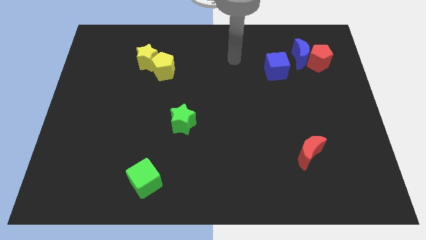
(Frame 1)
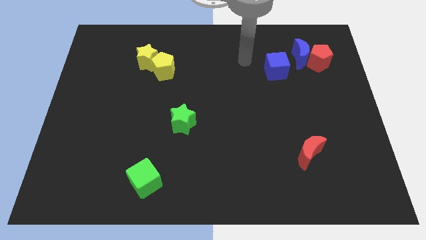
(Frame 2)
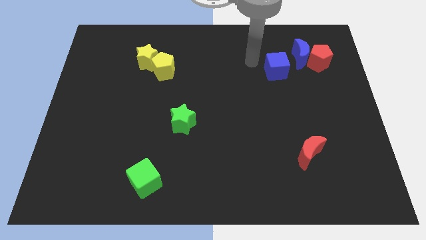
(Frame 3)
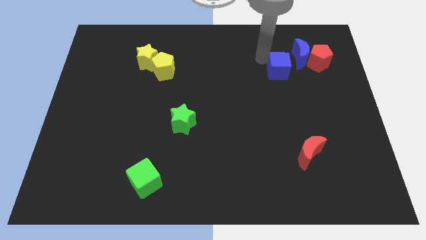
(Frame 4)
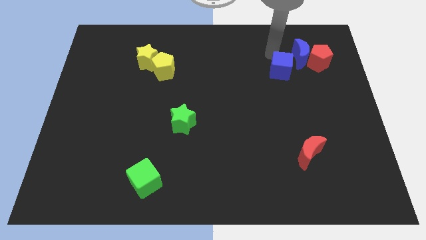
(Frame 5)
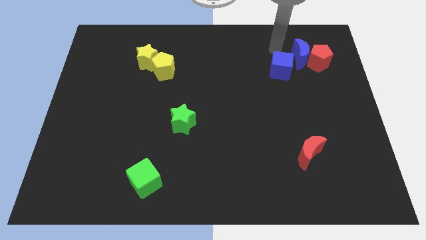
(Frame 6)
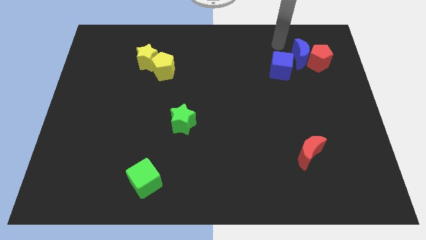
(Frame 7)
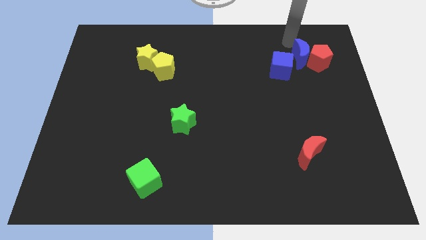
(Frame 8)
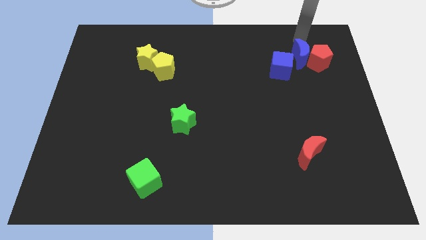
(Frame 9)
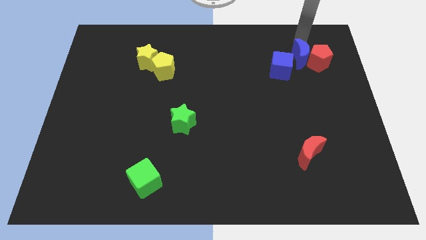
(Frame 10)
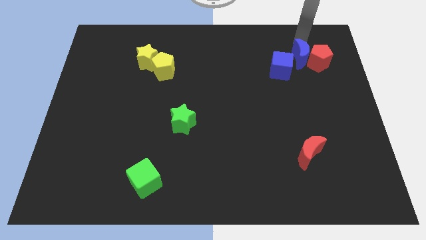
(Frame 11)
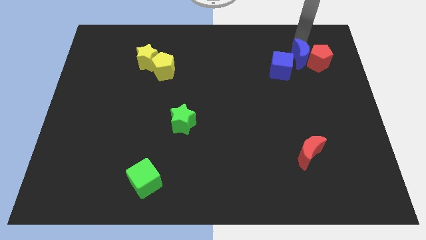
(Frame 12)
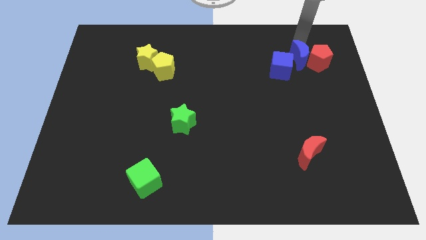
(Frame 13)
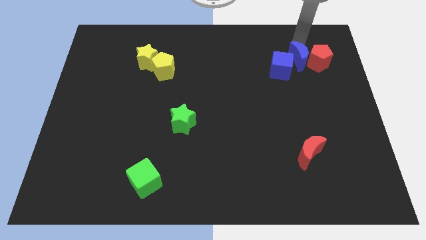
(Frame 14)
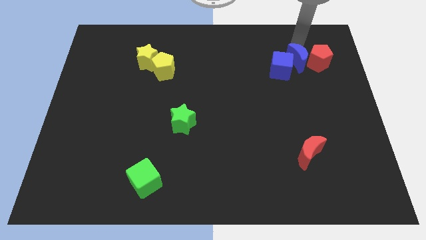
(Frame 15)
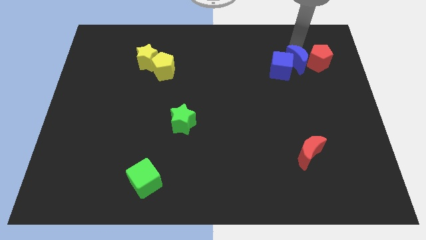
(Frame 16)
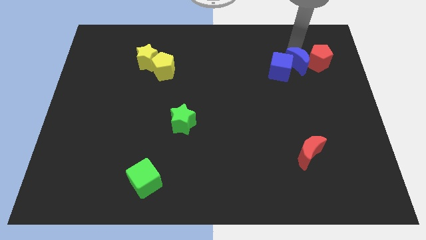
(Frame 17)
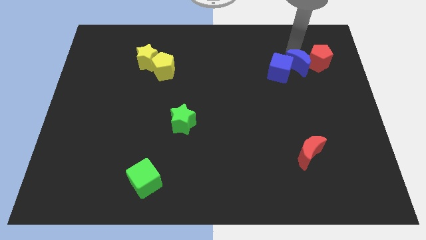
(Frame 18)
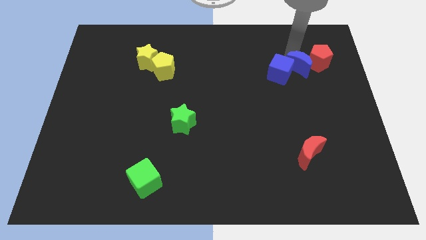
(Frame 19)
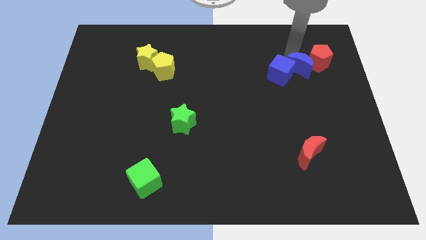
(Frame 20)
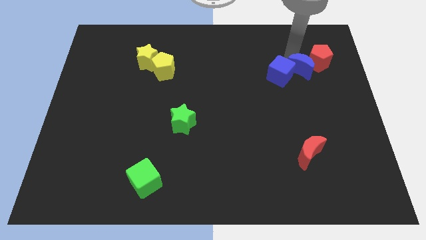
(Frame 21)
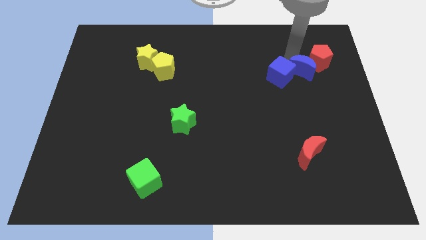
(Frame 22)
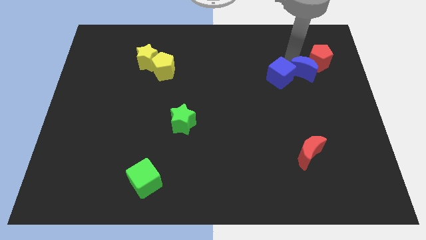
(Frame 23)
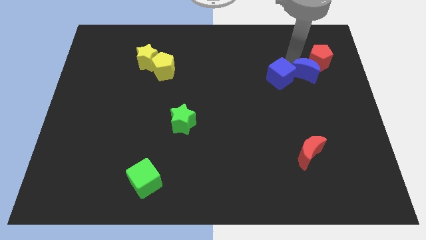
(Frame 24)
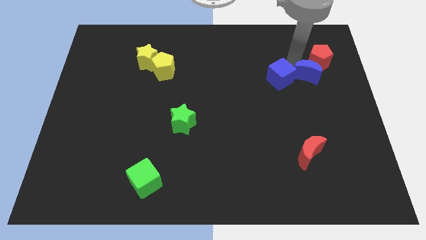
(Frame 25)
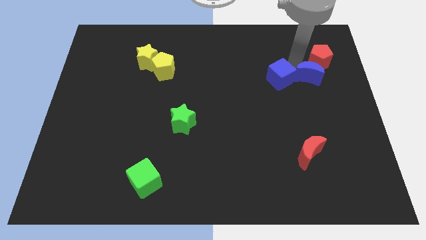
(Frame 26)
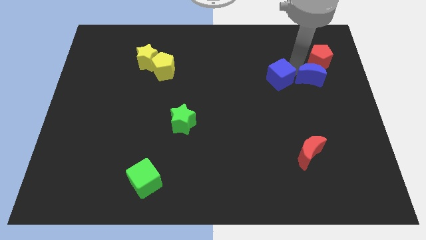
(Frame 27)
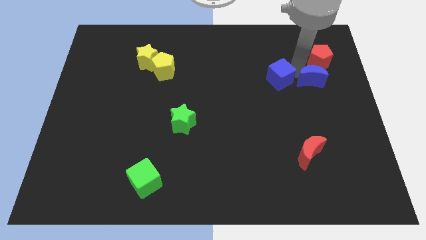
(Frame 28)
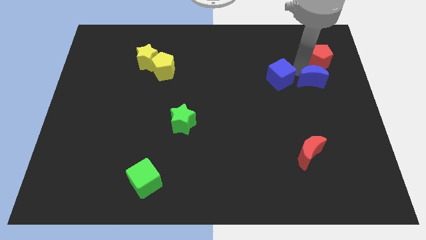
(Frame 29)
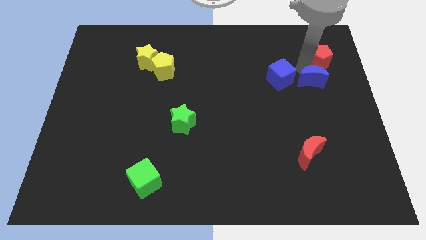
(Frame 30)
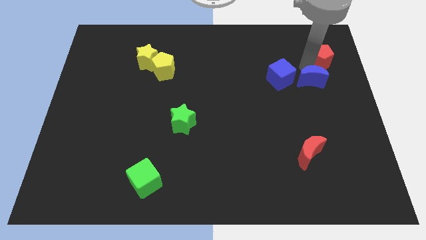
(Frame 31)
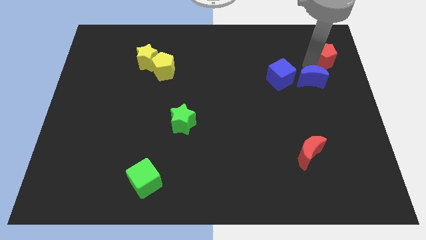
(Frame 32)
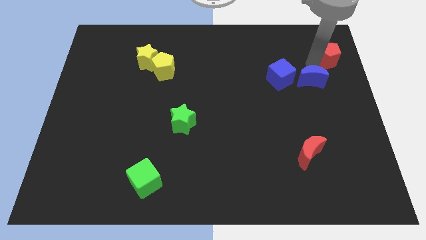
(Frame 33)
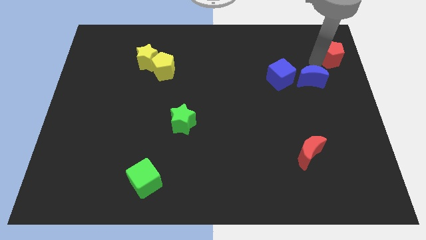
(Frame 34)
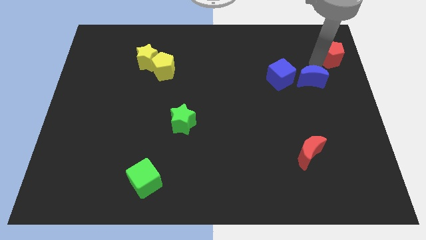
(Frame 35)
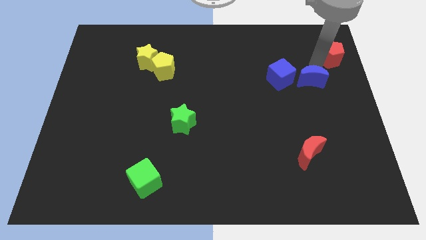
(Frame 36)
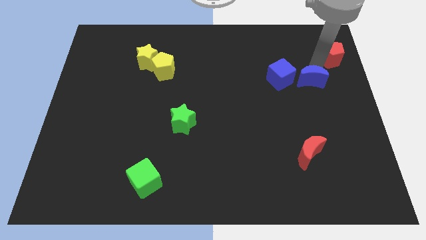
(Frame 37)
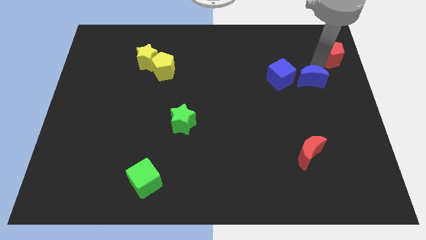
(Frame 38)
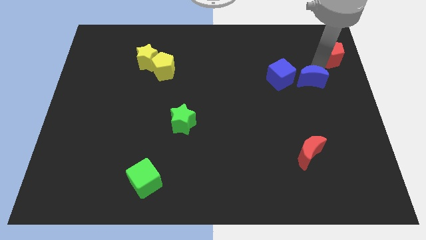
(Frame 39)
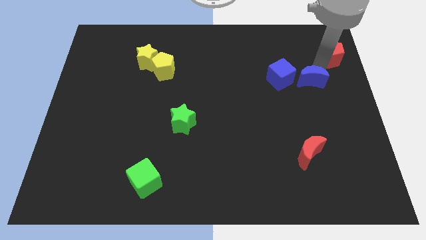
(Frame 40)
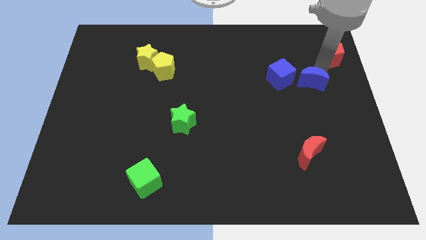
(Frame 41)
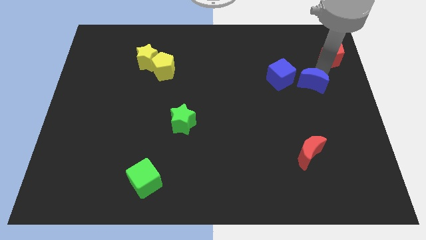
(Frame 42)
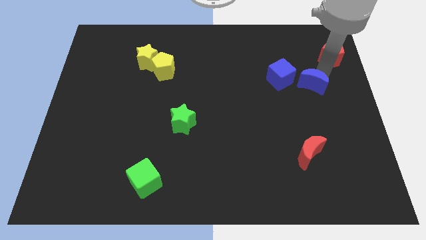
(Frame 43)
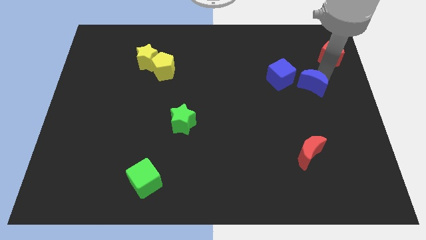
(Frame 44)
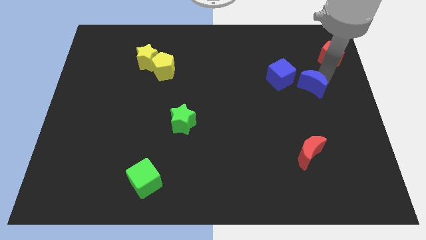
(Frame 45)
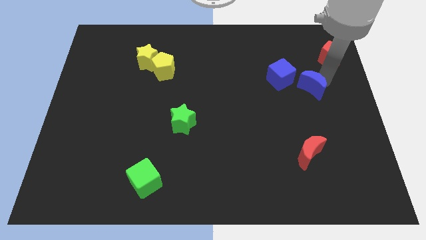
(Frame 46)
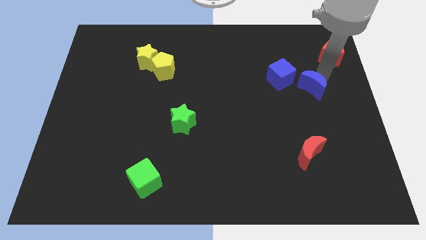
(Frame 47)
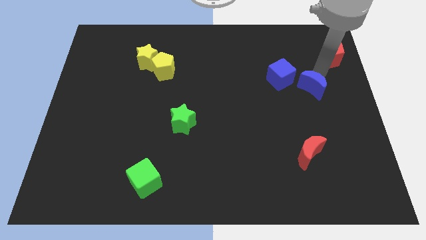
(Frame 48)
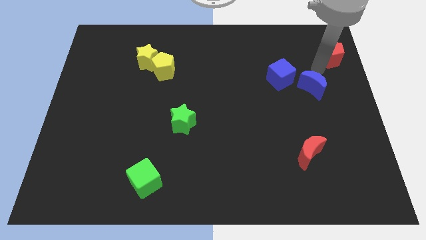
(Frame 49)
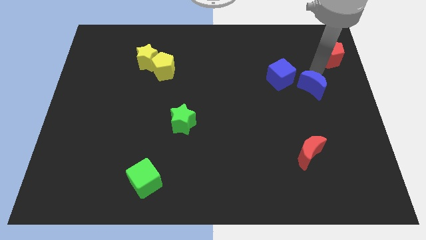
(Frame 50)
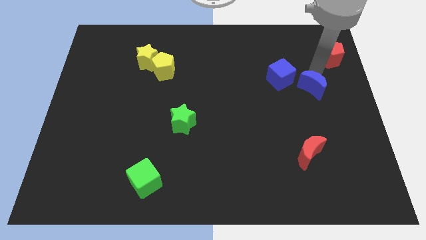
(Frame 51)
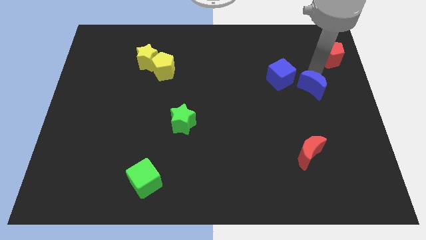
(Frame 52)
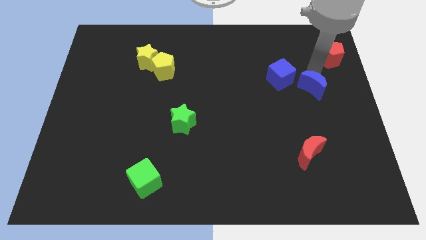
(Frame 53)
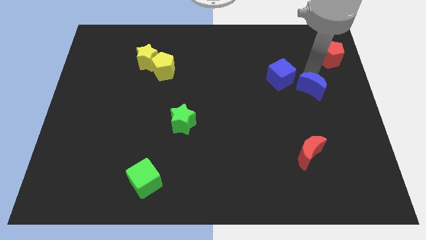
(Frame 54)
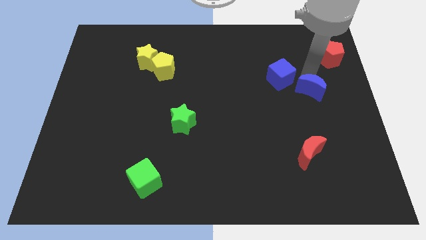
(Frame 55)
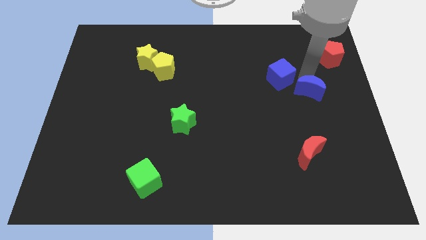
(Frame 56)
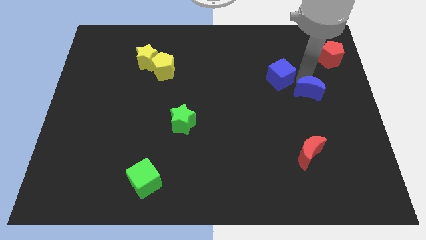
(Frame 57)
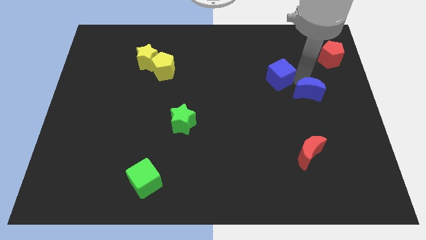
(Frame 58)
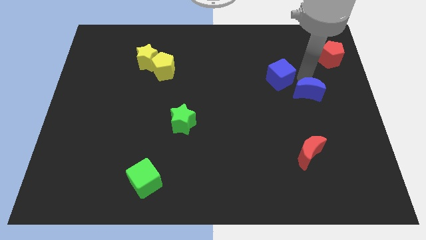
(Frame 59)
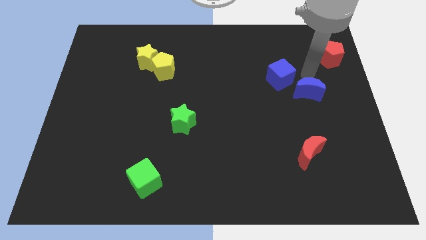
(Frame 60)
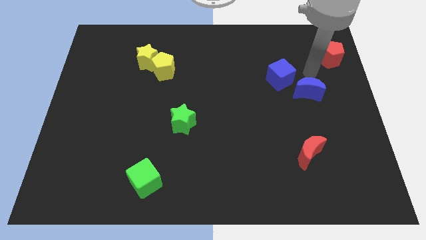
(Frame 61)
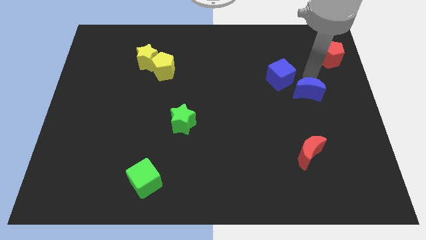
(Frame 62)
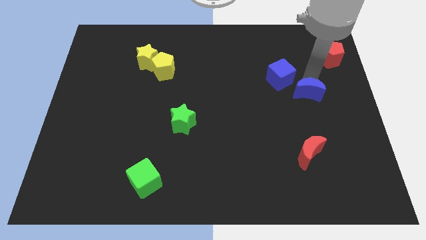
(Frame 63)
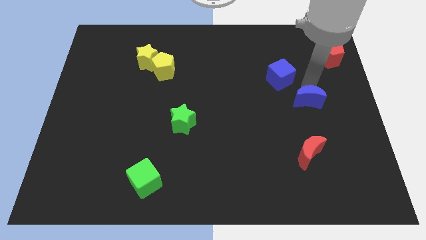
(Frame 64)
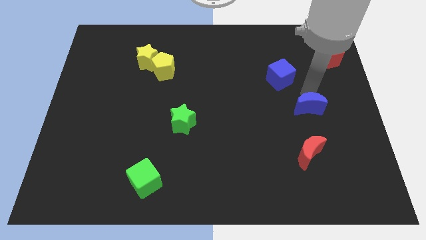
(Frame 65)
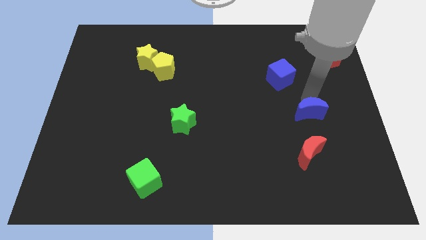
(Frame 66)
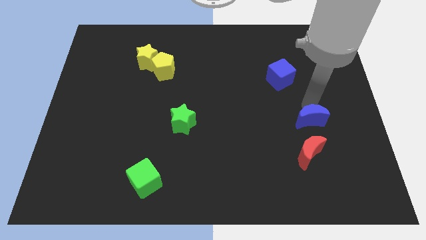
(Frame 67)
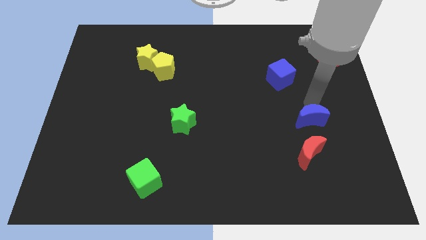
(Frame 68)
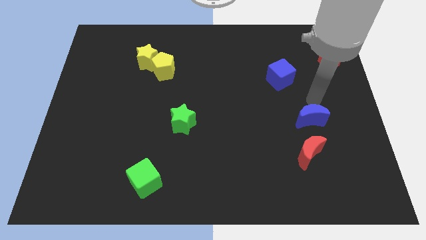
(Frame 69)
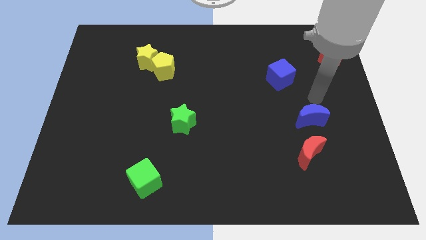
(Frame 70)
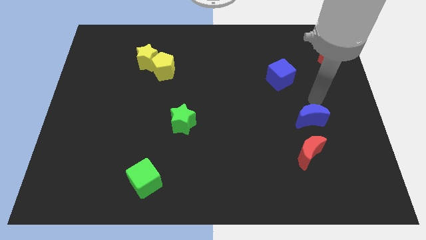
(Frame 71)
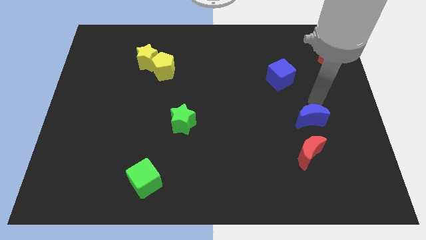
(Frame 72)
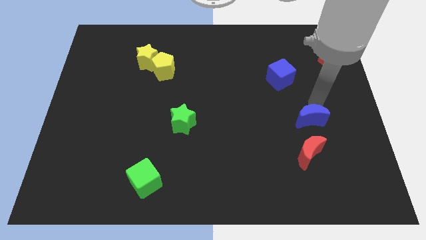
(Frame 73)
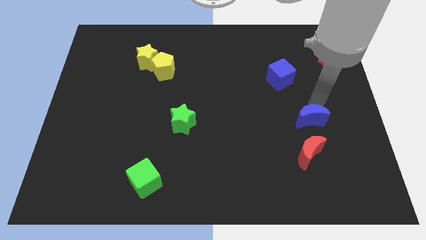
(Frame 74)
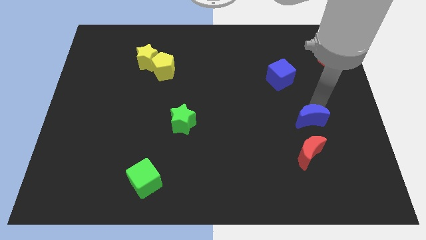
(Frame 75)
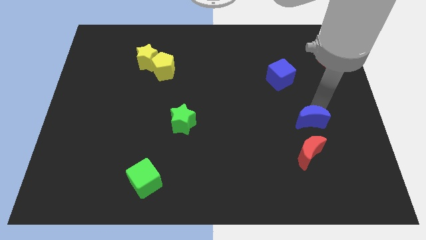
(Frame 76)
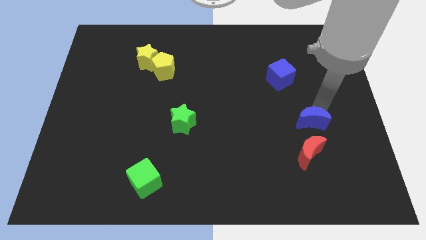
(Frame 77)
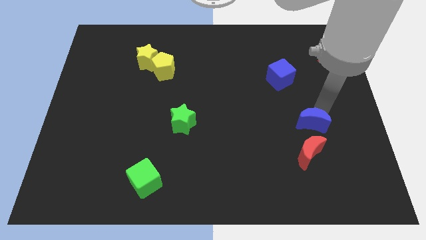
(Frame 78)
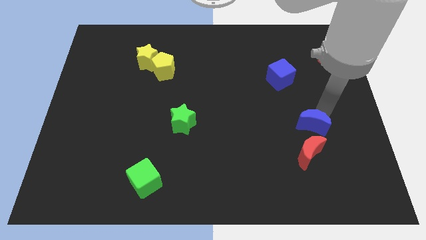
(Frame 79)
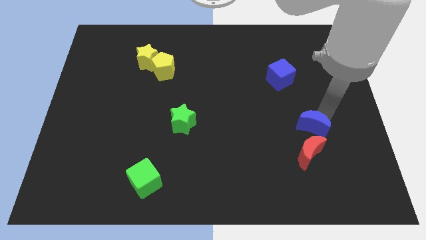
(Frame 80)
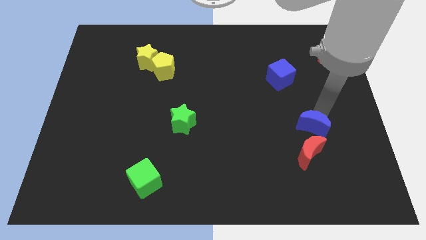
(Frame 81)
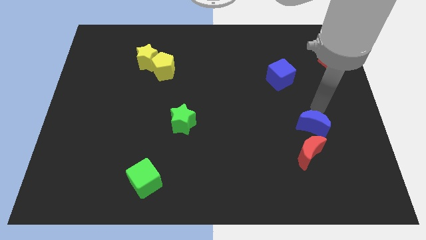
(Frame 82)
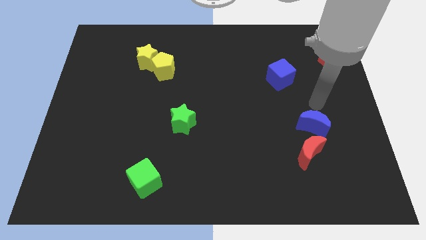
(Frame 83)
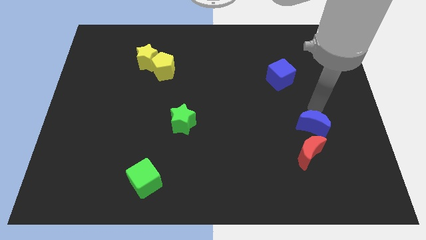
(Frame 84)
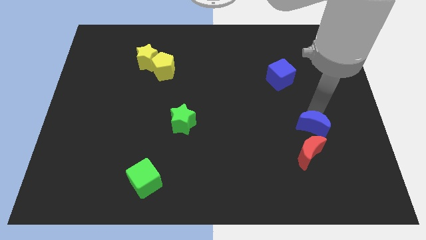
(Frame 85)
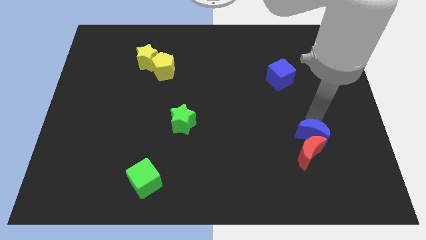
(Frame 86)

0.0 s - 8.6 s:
put the blue moon towards the red moon
